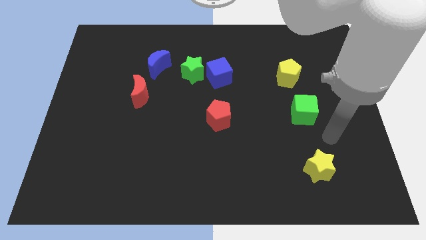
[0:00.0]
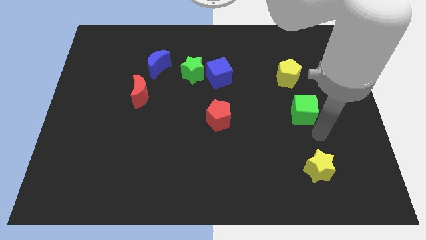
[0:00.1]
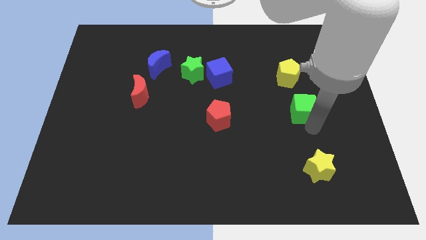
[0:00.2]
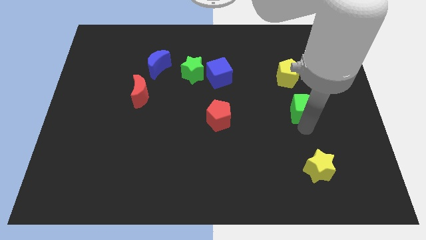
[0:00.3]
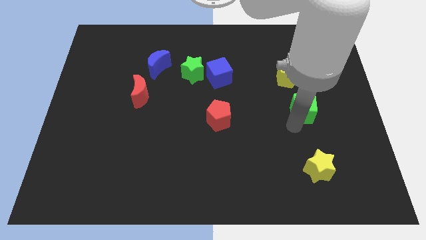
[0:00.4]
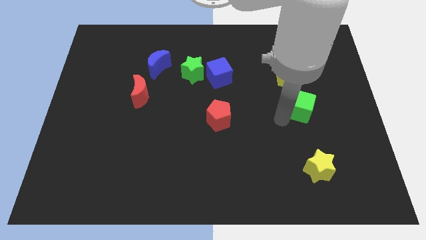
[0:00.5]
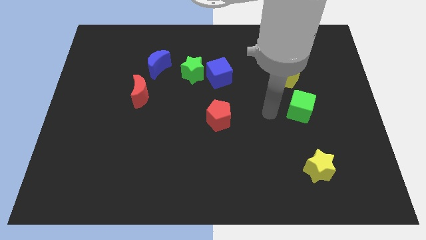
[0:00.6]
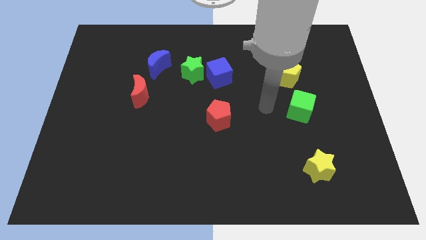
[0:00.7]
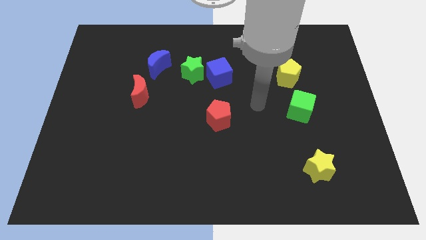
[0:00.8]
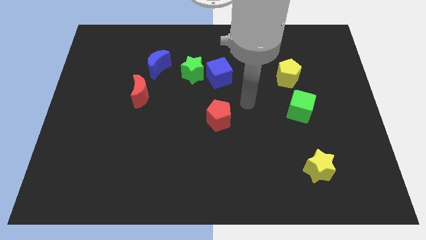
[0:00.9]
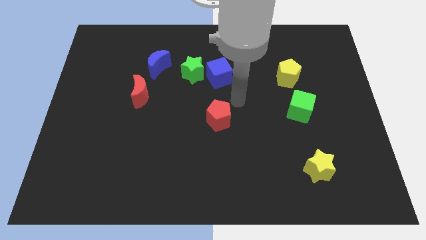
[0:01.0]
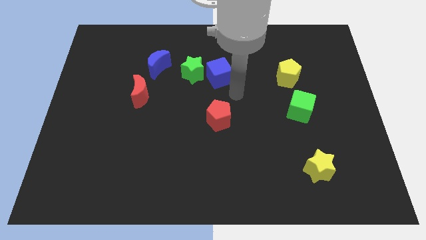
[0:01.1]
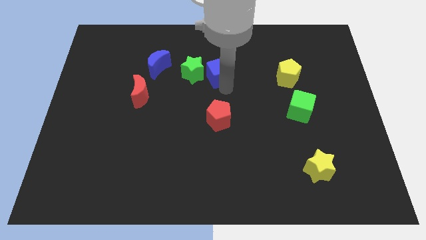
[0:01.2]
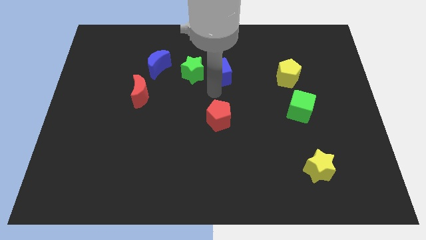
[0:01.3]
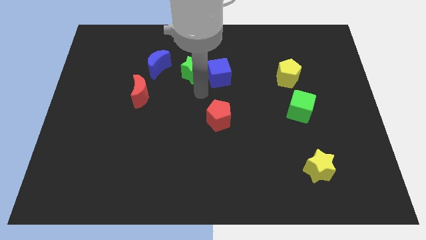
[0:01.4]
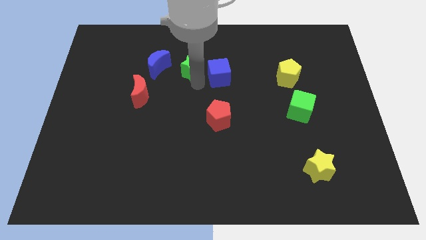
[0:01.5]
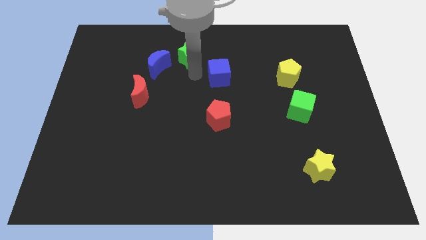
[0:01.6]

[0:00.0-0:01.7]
pull the blue cube apart from the green star

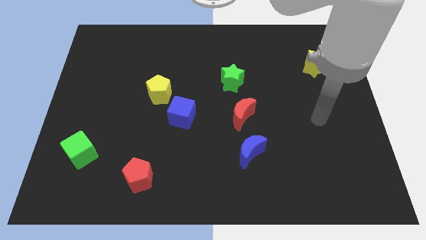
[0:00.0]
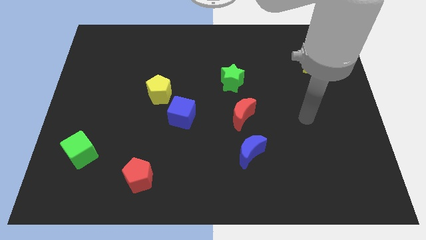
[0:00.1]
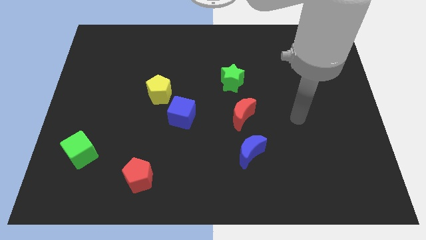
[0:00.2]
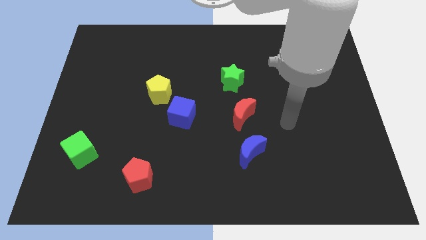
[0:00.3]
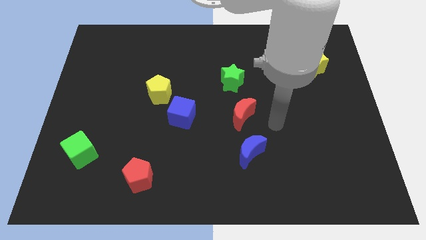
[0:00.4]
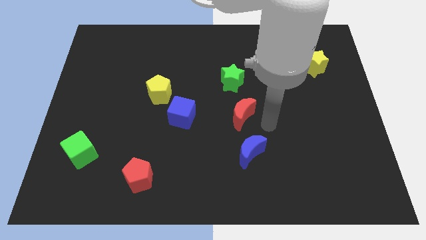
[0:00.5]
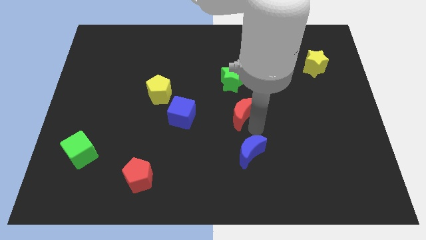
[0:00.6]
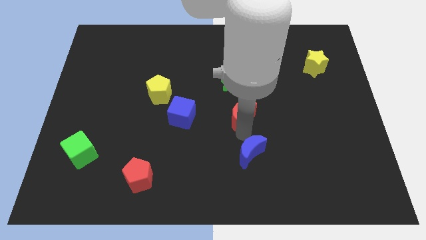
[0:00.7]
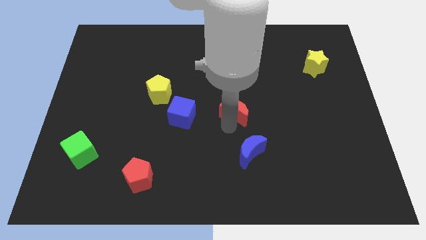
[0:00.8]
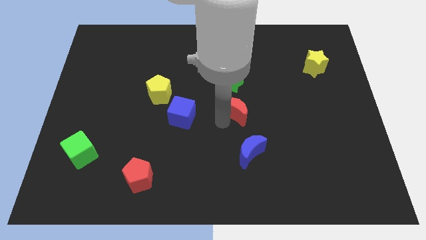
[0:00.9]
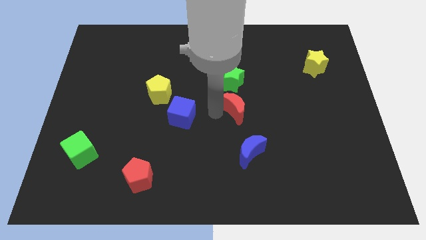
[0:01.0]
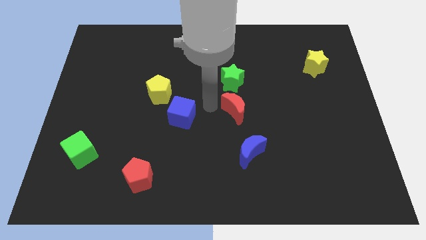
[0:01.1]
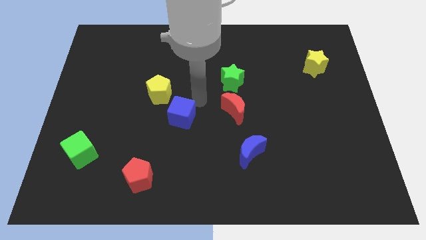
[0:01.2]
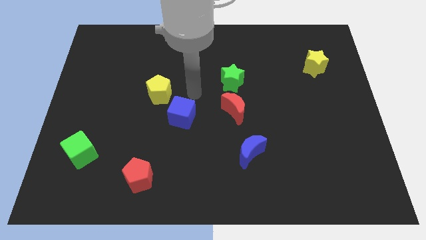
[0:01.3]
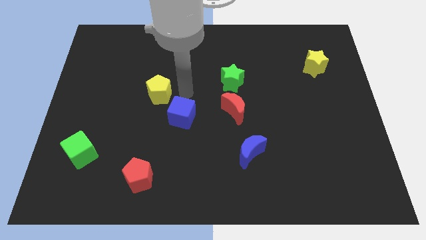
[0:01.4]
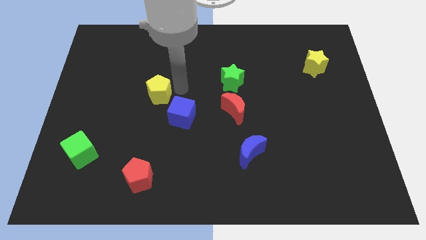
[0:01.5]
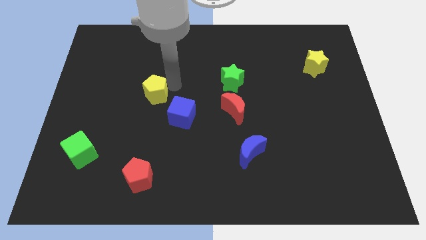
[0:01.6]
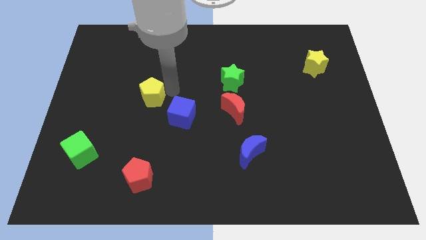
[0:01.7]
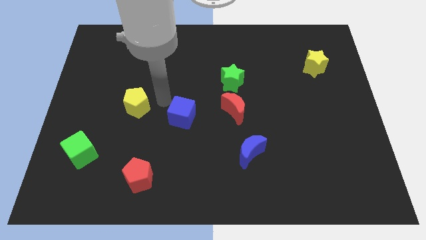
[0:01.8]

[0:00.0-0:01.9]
separate the blue cube from the yellow pentagon

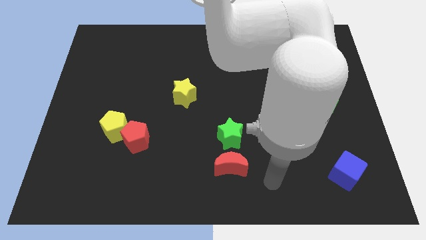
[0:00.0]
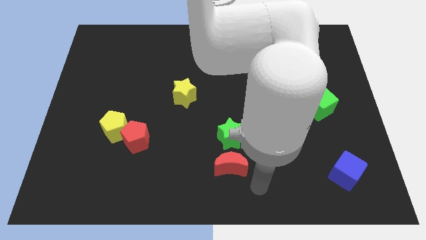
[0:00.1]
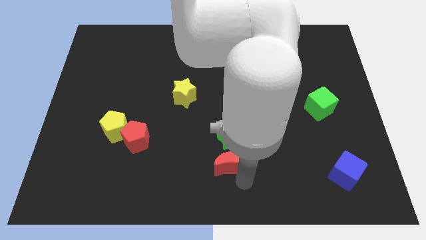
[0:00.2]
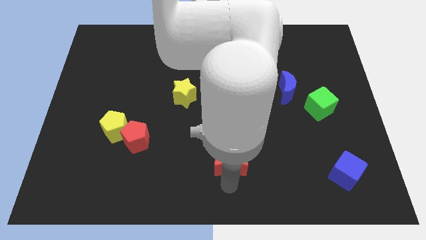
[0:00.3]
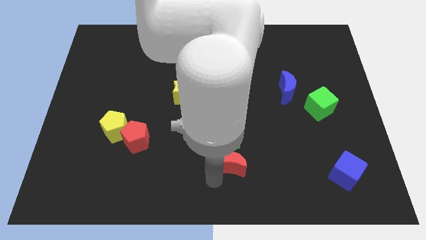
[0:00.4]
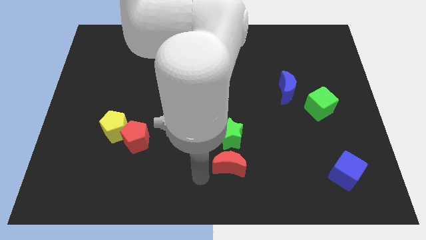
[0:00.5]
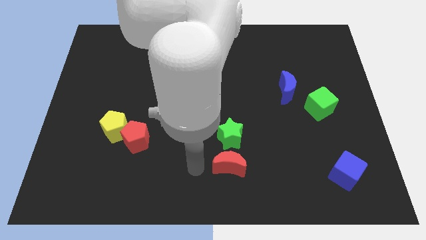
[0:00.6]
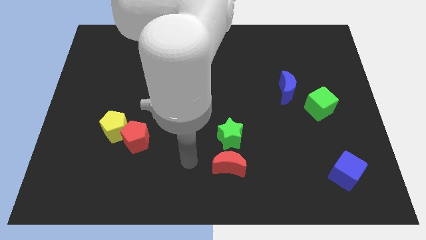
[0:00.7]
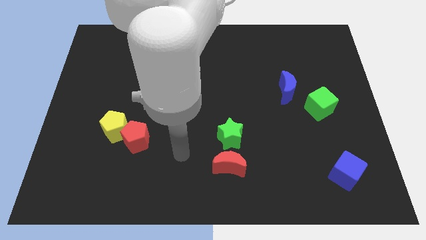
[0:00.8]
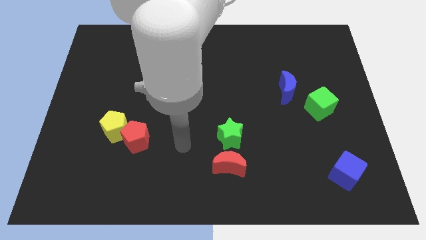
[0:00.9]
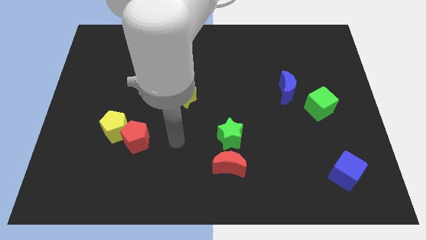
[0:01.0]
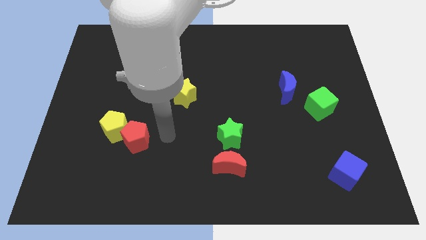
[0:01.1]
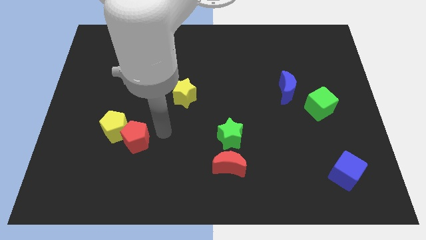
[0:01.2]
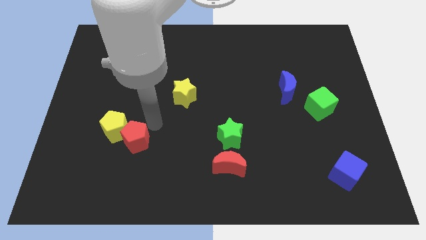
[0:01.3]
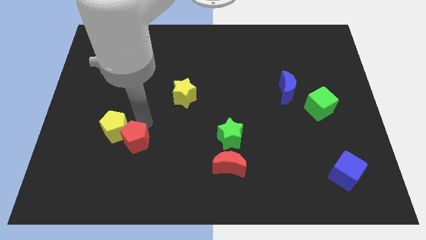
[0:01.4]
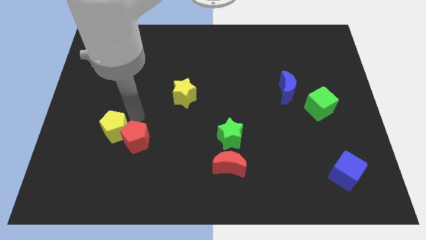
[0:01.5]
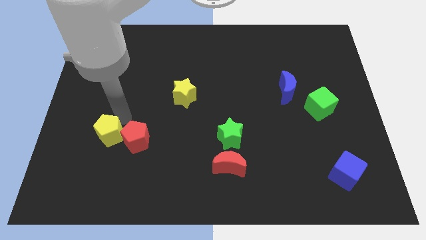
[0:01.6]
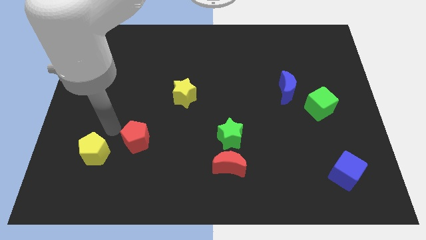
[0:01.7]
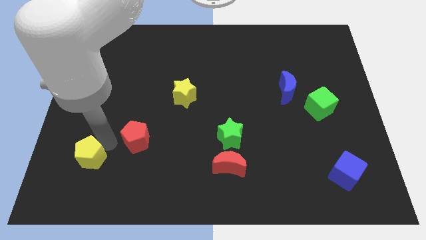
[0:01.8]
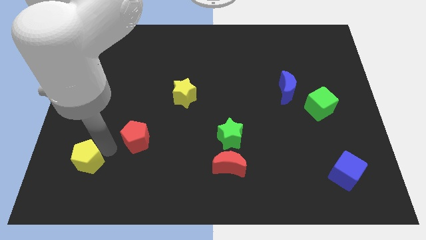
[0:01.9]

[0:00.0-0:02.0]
move the red pentagon away from the yellow pentagon

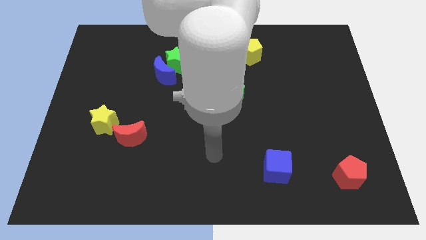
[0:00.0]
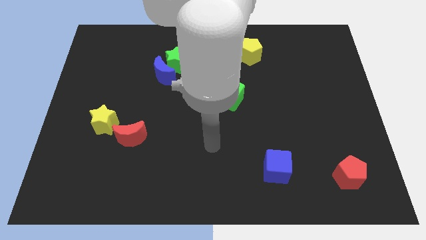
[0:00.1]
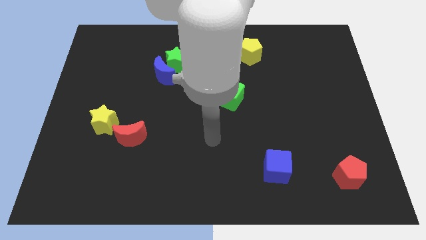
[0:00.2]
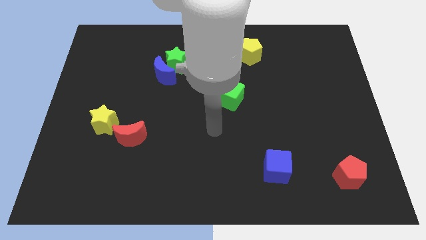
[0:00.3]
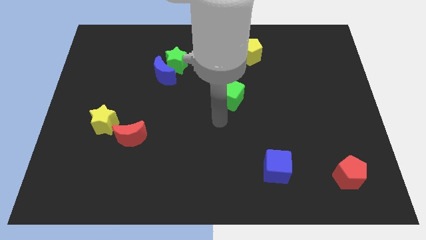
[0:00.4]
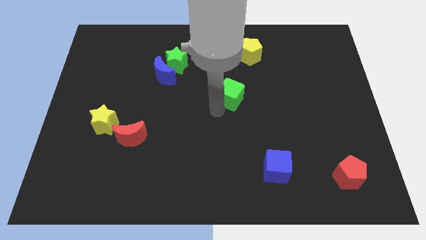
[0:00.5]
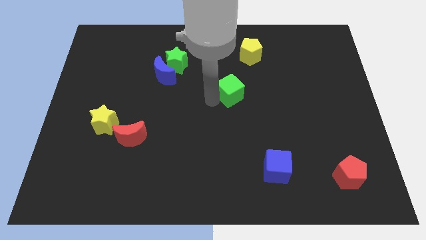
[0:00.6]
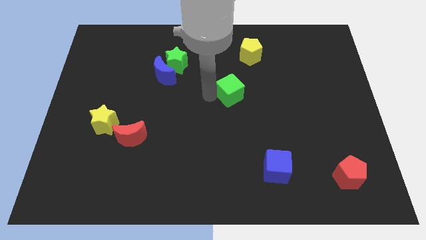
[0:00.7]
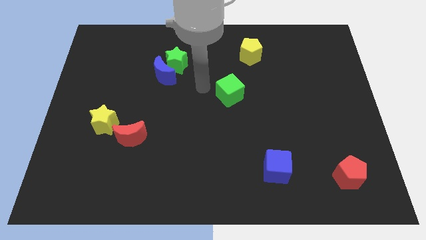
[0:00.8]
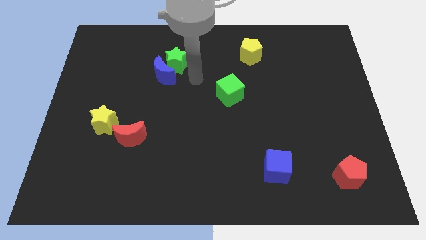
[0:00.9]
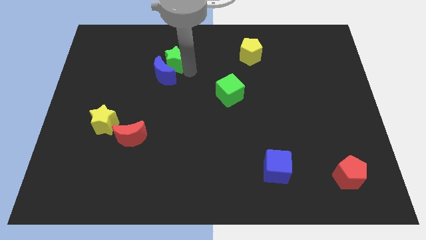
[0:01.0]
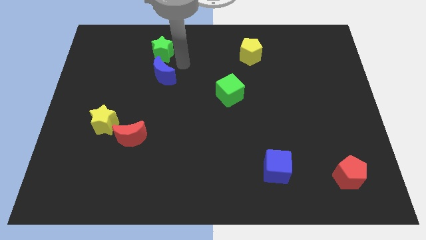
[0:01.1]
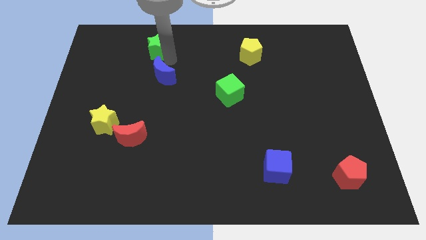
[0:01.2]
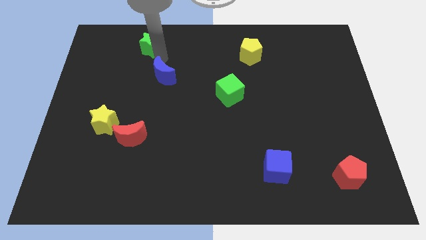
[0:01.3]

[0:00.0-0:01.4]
pull the blue moon apart from the green star

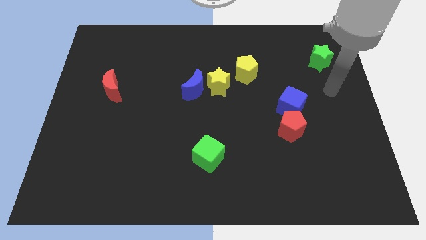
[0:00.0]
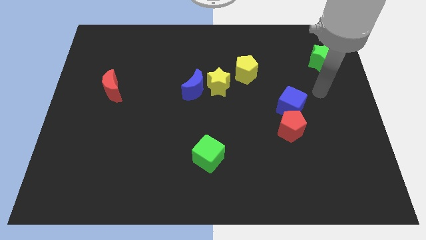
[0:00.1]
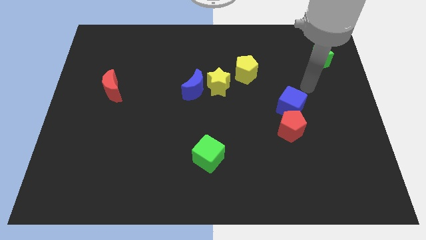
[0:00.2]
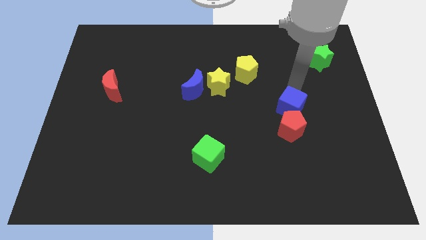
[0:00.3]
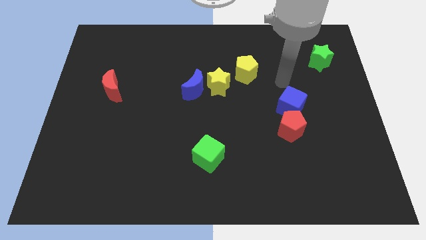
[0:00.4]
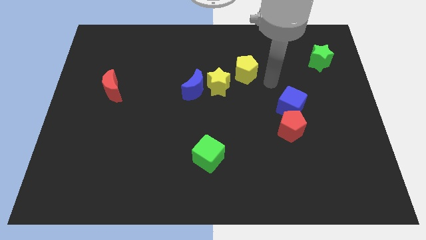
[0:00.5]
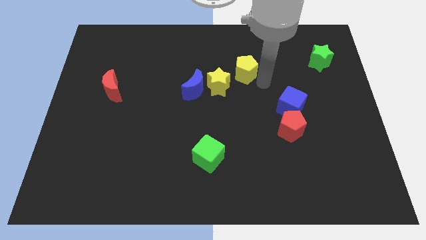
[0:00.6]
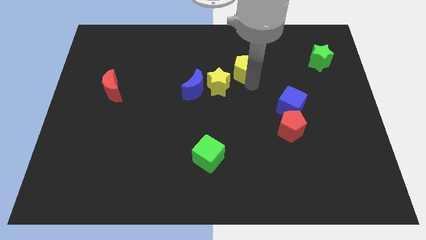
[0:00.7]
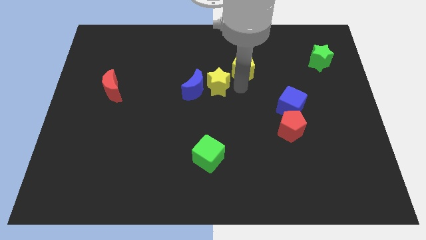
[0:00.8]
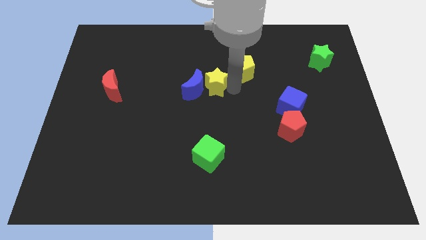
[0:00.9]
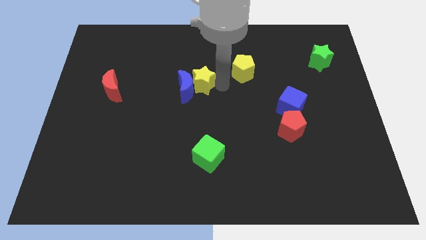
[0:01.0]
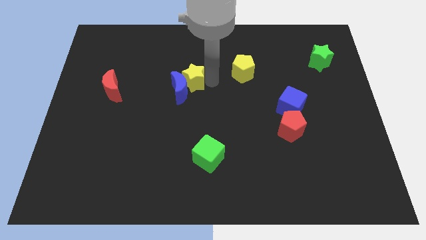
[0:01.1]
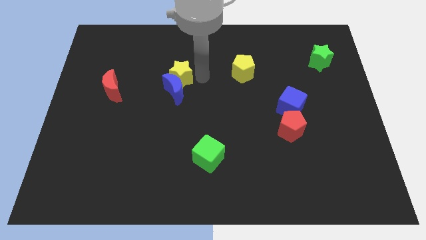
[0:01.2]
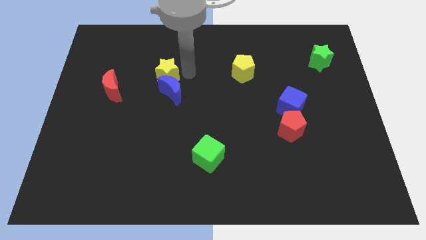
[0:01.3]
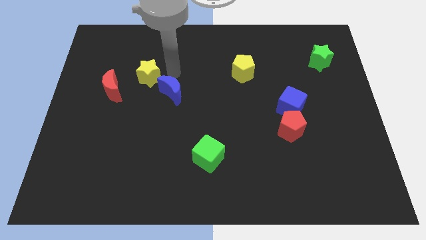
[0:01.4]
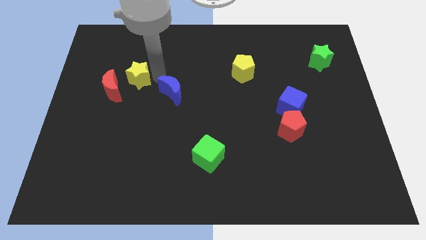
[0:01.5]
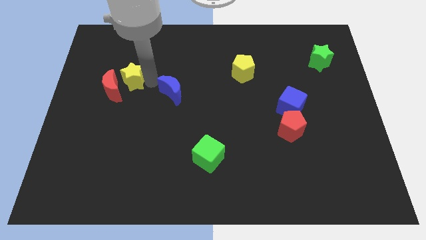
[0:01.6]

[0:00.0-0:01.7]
pull the blue moon apart from the yellow star

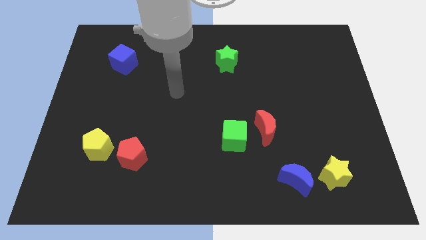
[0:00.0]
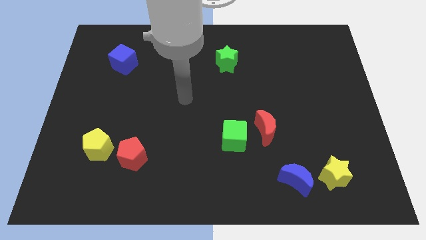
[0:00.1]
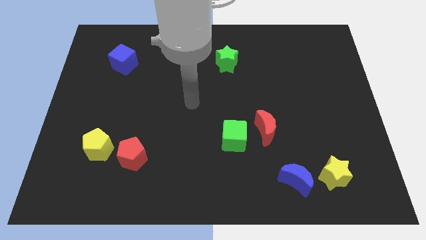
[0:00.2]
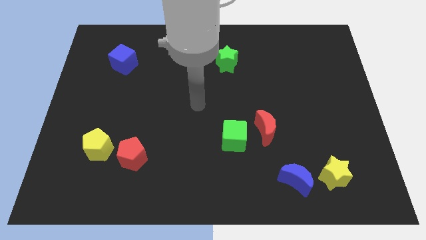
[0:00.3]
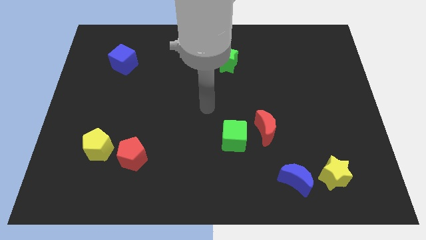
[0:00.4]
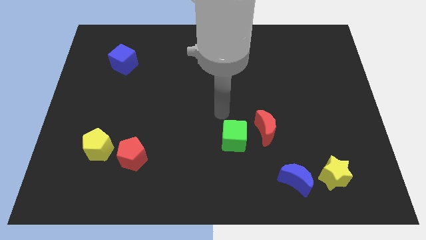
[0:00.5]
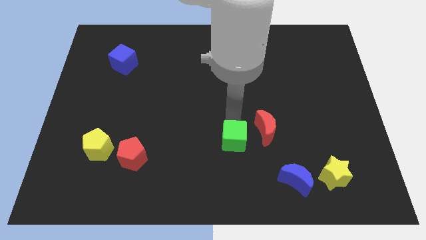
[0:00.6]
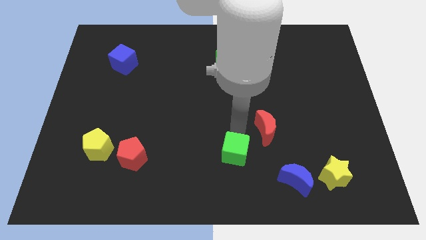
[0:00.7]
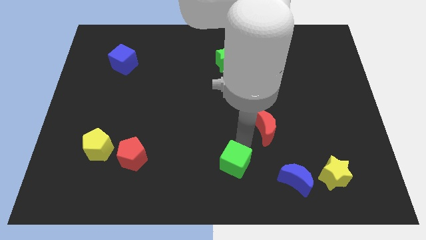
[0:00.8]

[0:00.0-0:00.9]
pull the red moon apart from the green cube
